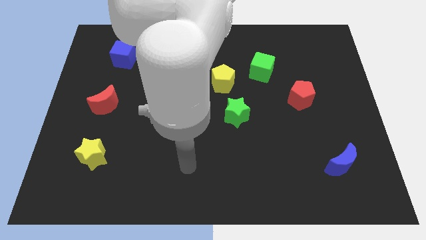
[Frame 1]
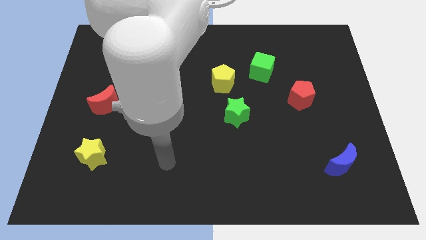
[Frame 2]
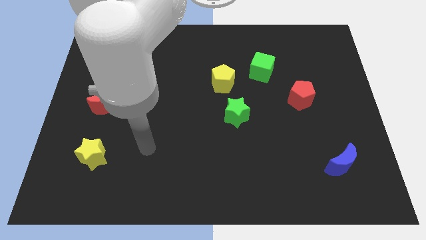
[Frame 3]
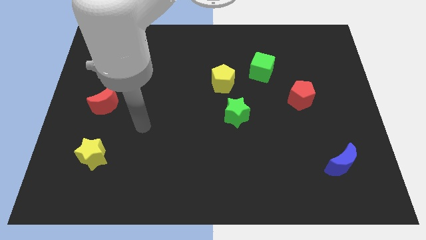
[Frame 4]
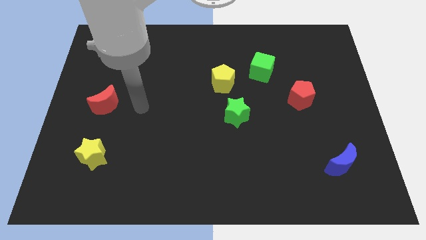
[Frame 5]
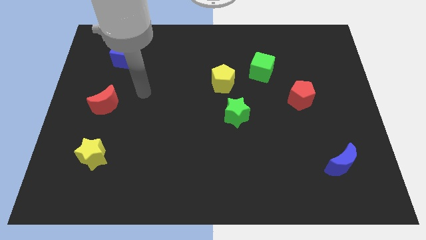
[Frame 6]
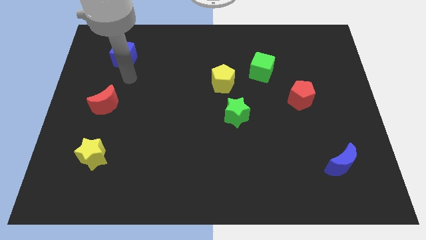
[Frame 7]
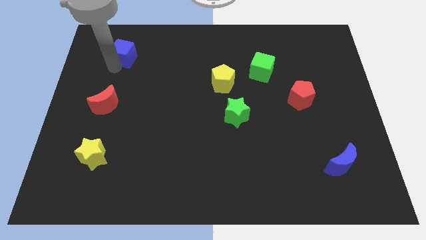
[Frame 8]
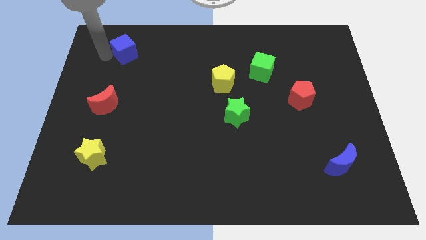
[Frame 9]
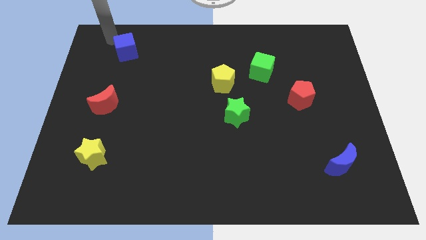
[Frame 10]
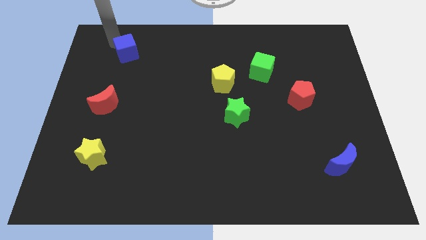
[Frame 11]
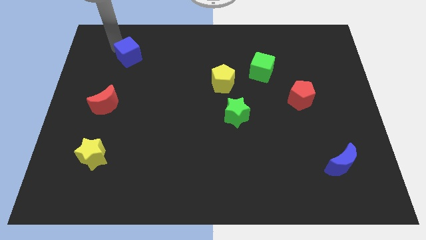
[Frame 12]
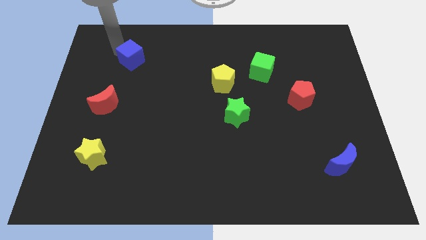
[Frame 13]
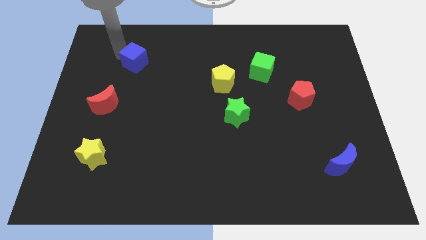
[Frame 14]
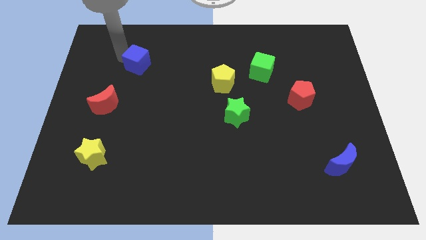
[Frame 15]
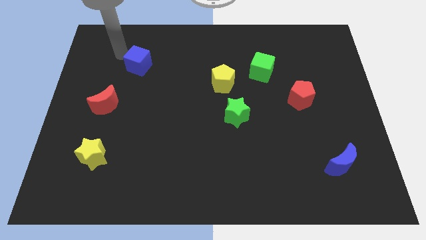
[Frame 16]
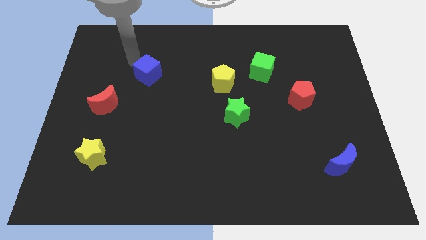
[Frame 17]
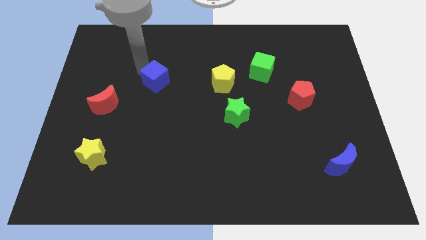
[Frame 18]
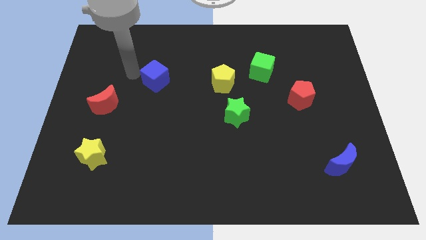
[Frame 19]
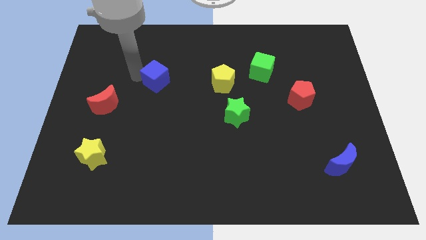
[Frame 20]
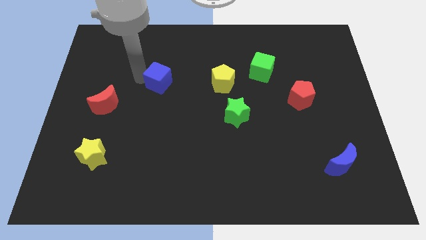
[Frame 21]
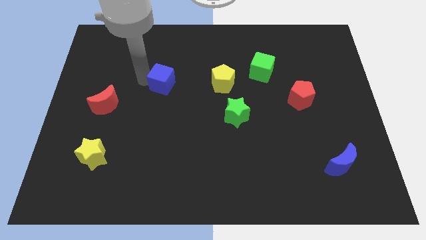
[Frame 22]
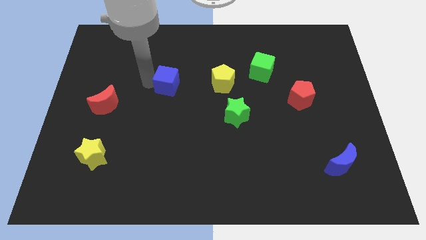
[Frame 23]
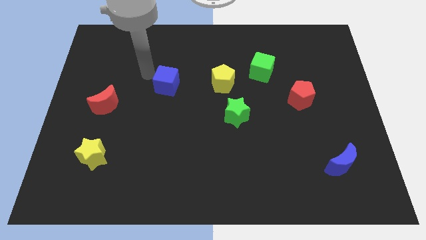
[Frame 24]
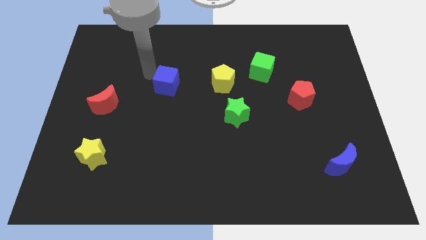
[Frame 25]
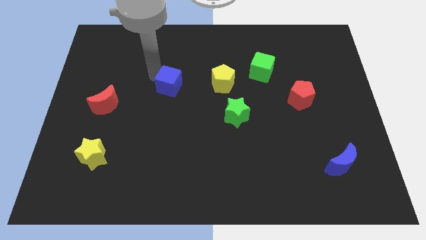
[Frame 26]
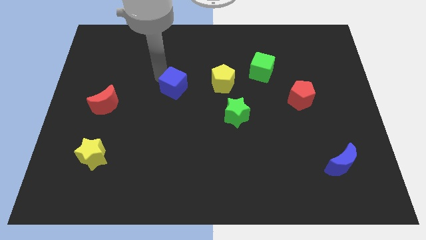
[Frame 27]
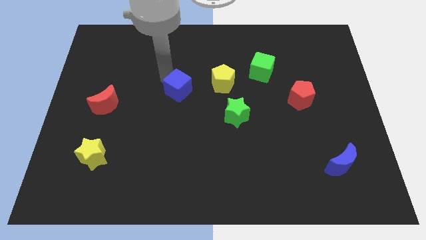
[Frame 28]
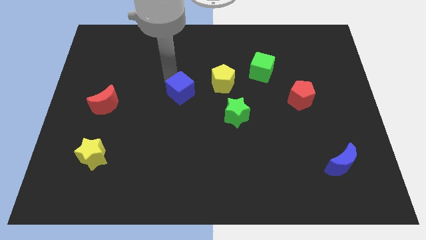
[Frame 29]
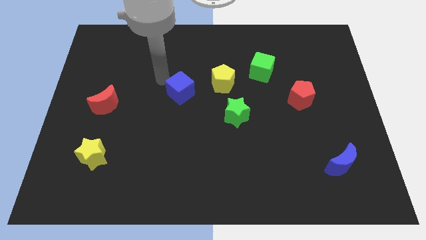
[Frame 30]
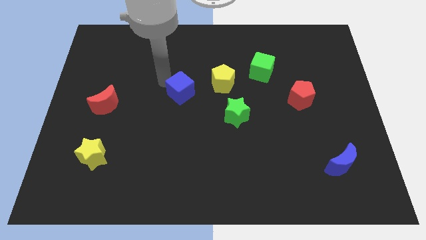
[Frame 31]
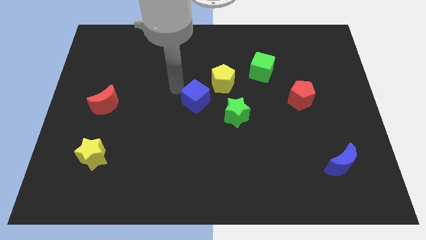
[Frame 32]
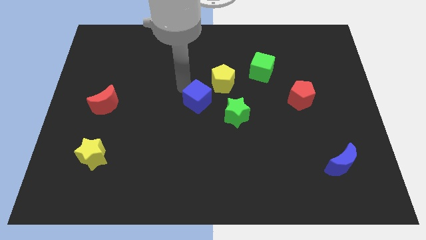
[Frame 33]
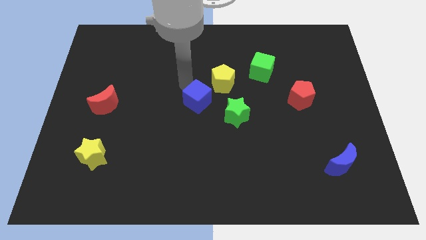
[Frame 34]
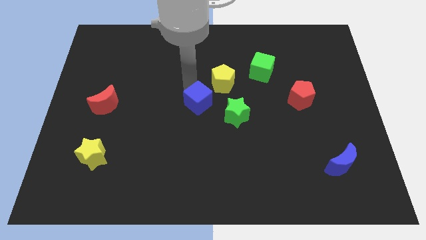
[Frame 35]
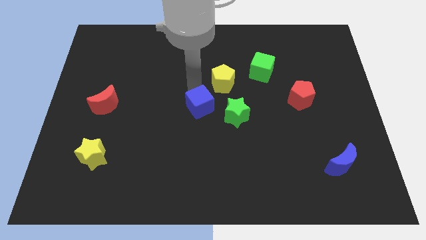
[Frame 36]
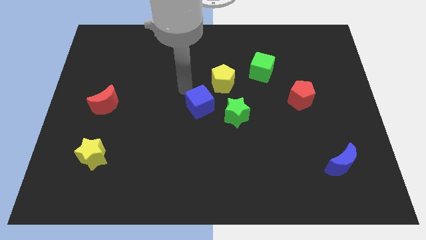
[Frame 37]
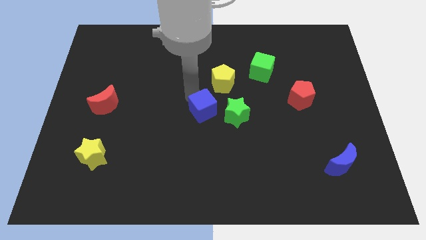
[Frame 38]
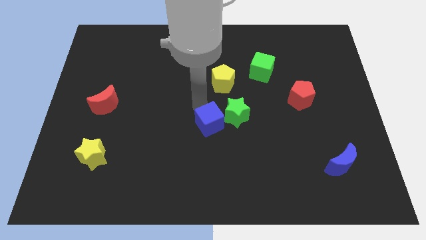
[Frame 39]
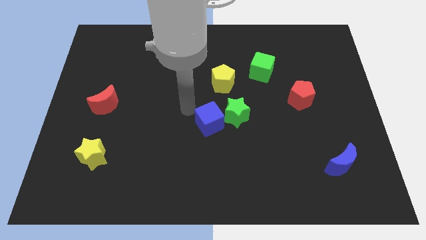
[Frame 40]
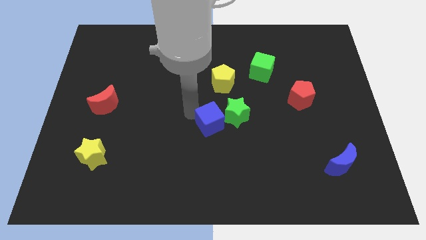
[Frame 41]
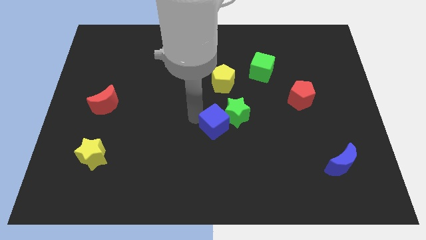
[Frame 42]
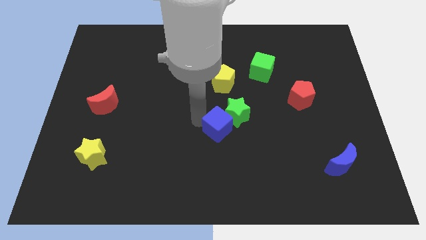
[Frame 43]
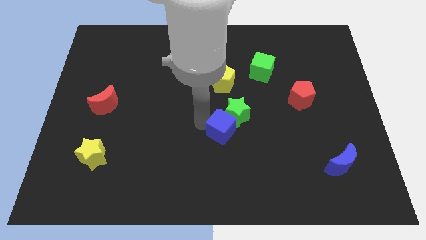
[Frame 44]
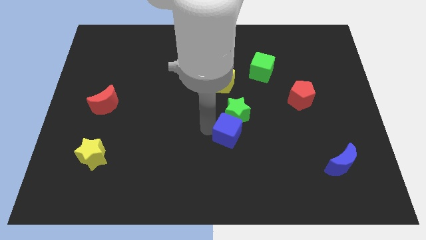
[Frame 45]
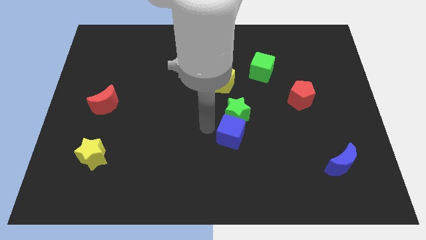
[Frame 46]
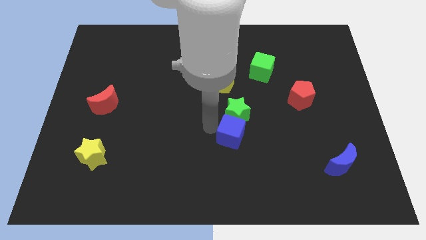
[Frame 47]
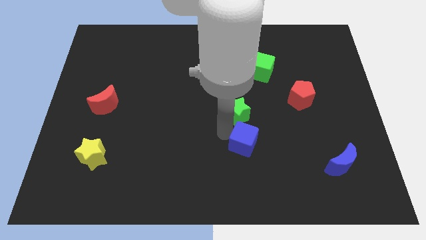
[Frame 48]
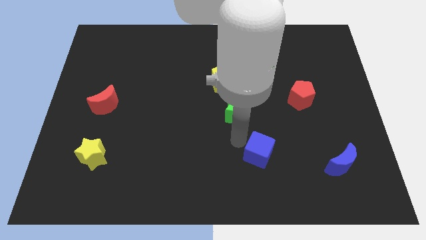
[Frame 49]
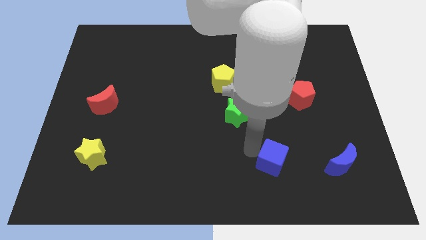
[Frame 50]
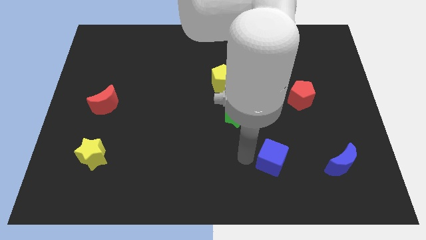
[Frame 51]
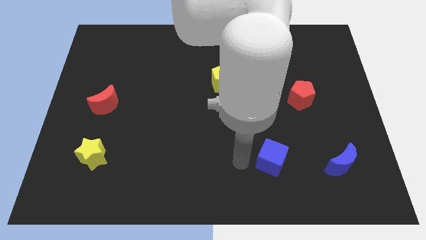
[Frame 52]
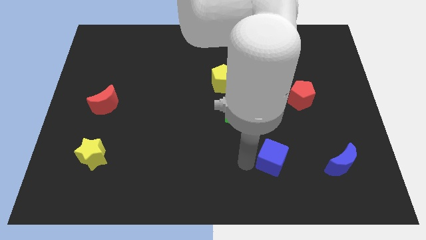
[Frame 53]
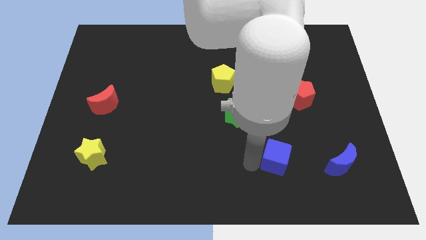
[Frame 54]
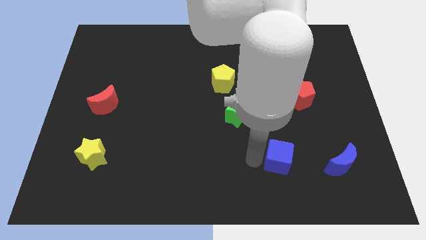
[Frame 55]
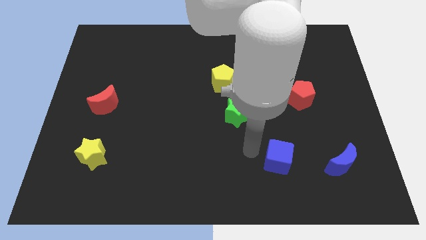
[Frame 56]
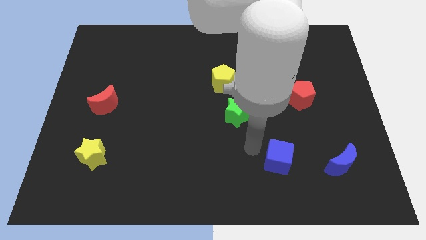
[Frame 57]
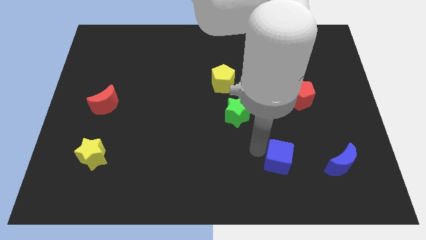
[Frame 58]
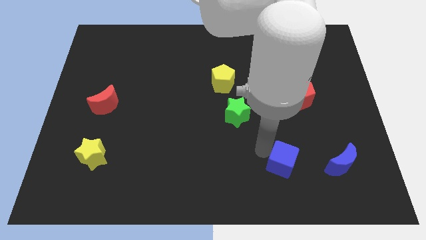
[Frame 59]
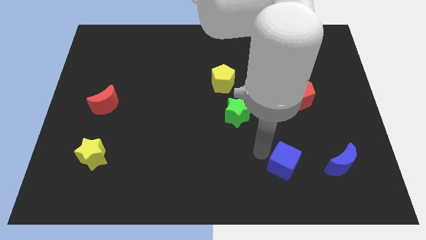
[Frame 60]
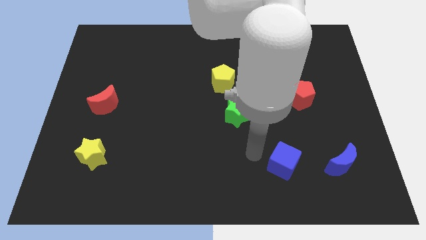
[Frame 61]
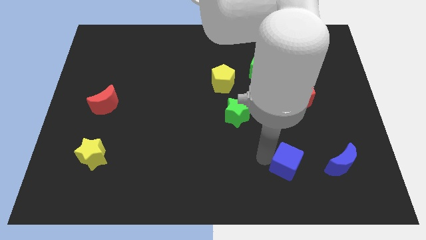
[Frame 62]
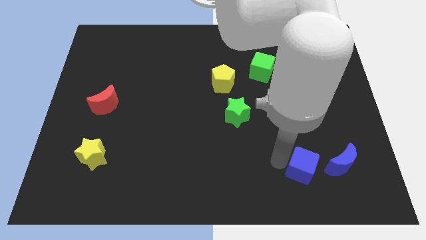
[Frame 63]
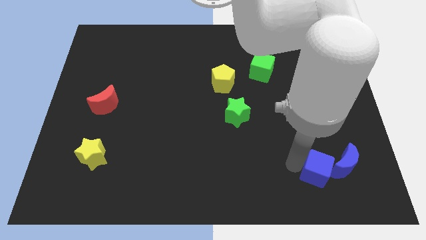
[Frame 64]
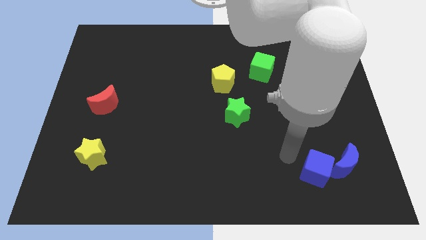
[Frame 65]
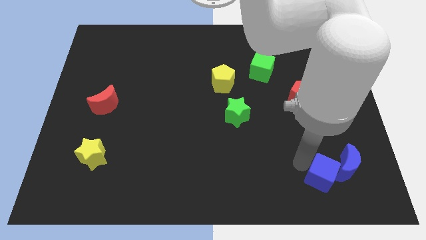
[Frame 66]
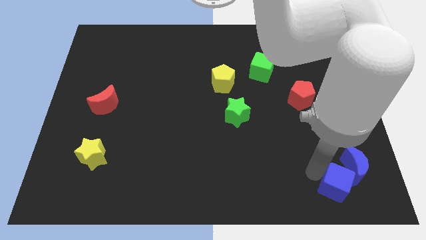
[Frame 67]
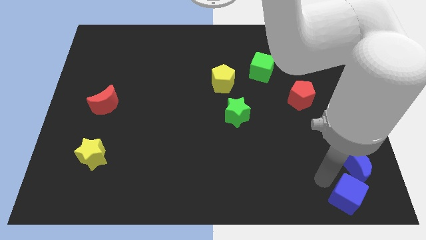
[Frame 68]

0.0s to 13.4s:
put the blue cube to the bottom right corner

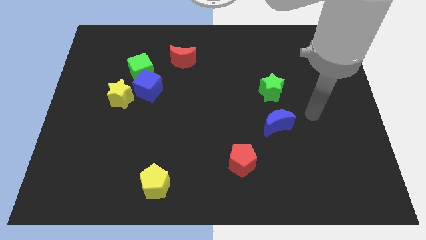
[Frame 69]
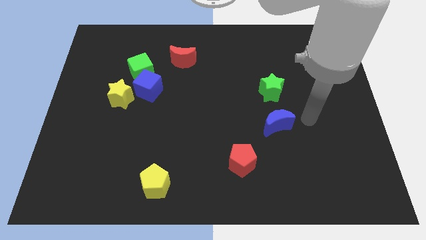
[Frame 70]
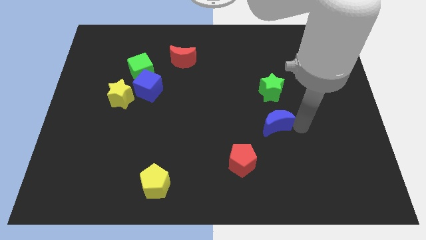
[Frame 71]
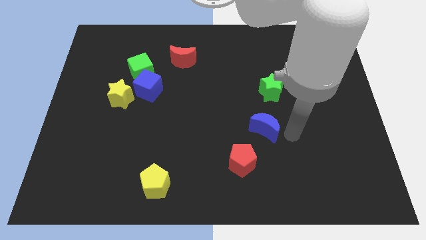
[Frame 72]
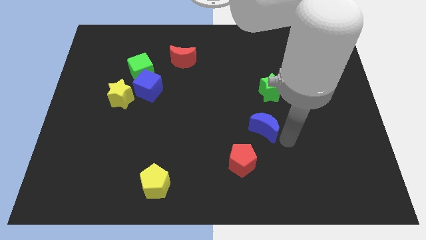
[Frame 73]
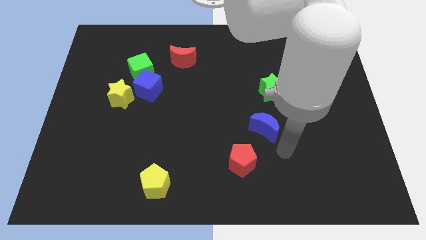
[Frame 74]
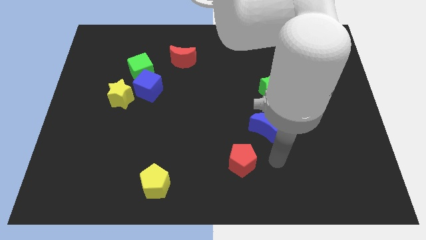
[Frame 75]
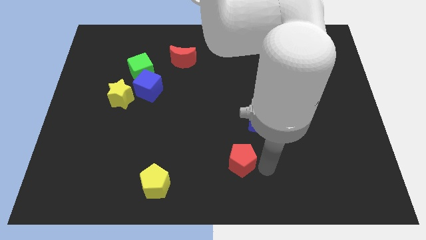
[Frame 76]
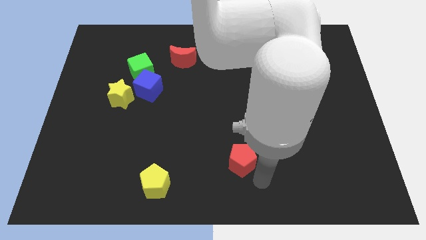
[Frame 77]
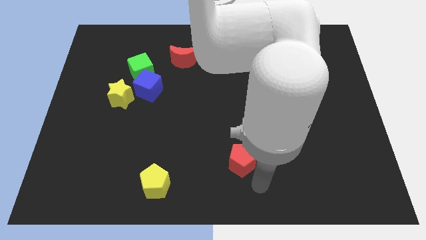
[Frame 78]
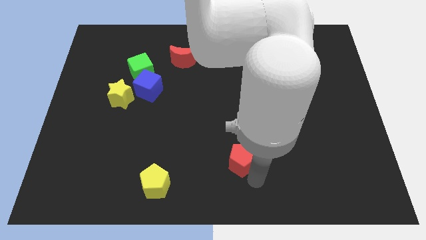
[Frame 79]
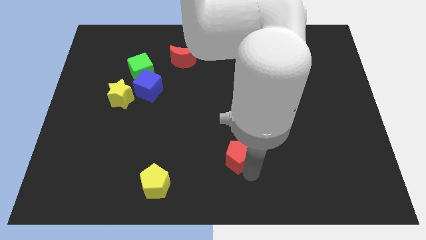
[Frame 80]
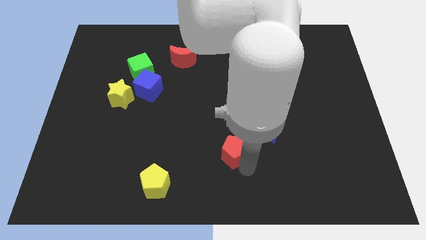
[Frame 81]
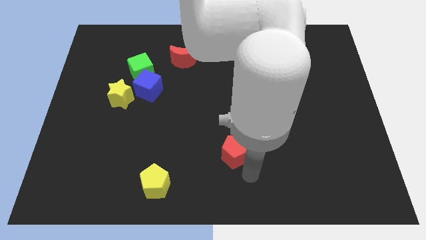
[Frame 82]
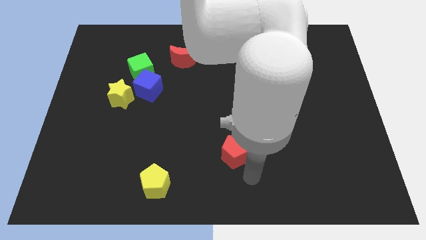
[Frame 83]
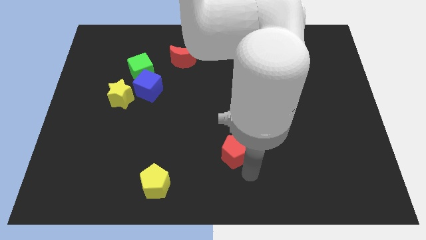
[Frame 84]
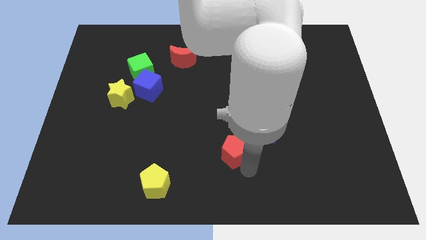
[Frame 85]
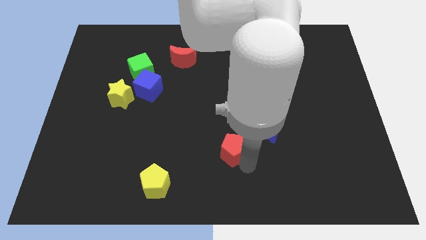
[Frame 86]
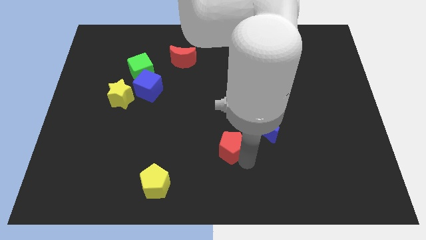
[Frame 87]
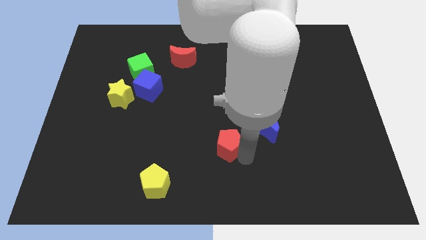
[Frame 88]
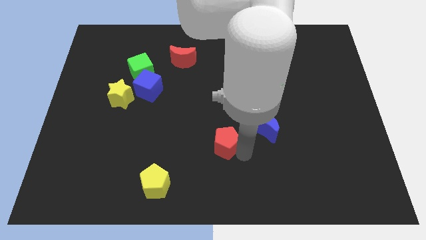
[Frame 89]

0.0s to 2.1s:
push the red pentagon to the center of the board
